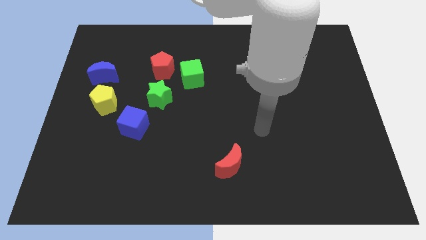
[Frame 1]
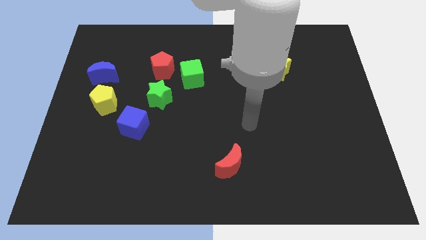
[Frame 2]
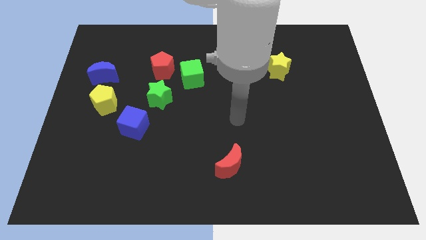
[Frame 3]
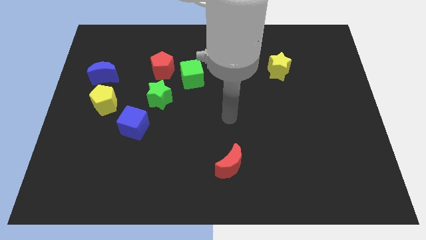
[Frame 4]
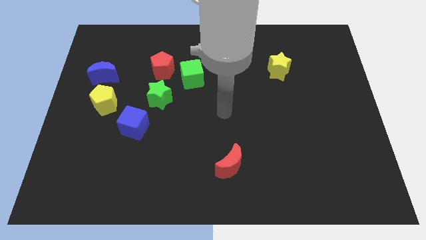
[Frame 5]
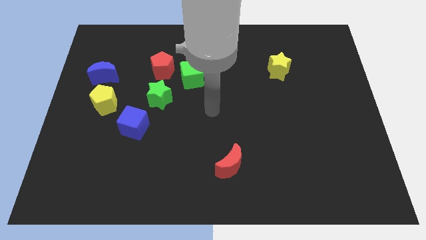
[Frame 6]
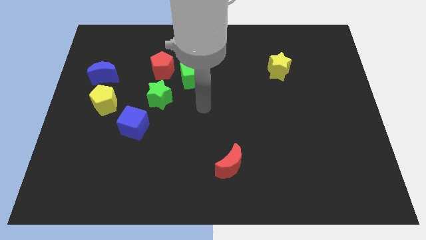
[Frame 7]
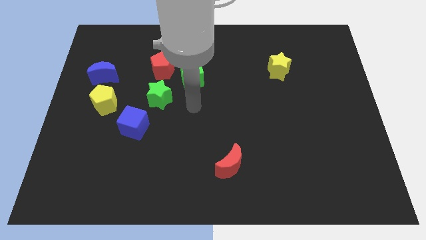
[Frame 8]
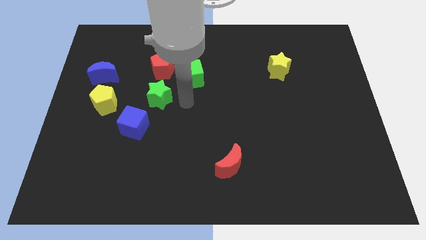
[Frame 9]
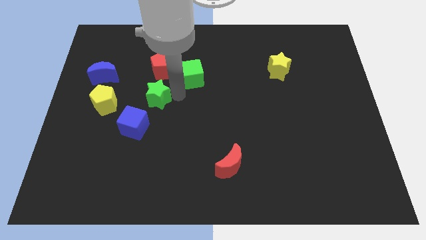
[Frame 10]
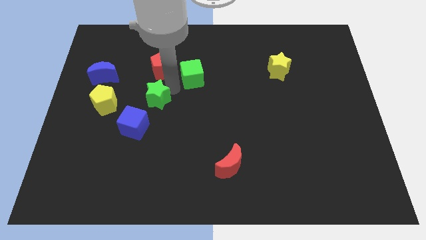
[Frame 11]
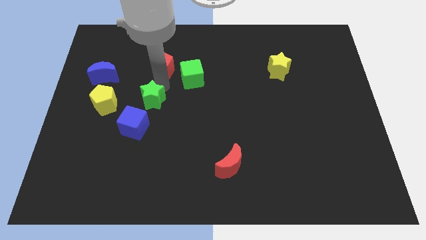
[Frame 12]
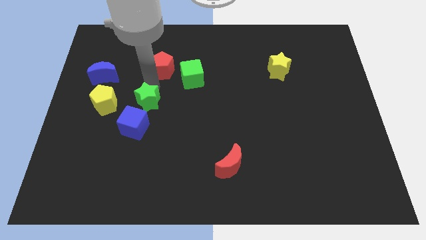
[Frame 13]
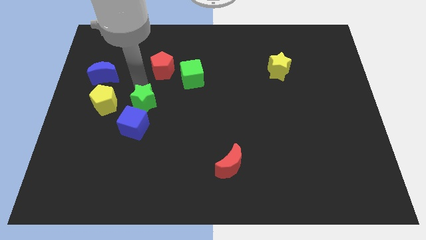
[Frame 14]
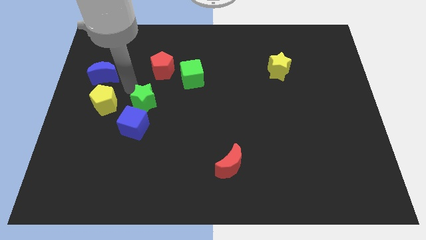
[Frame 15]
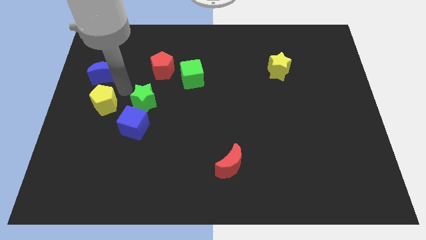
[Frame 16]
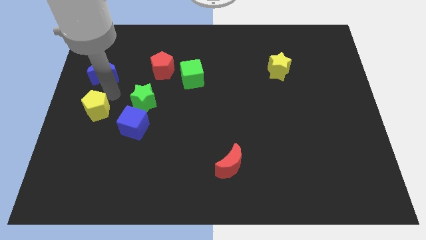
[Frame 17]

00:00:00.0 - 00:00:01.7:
pull the blue moon apart from the yellow pentagon

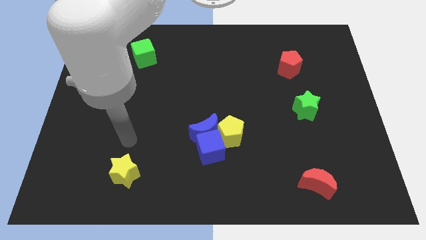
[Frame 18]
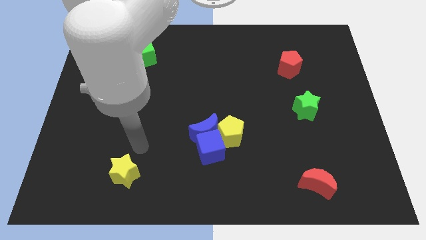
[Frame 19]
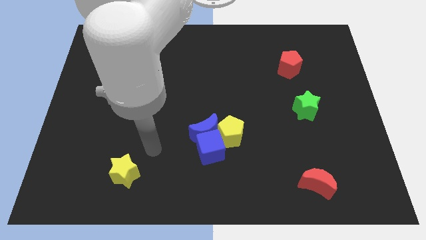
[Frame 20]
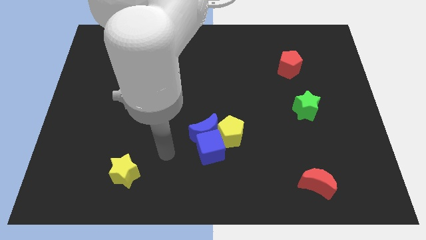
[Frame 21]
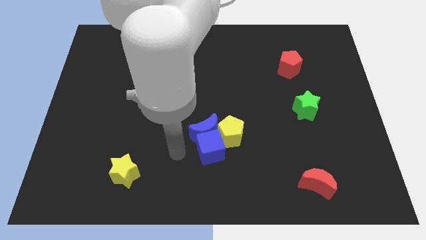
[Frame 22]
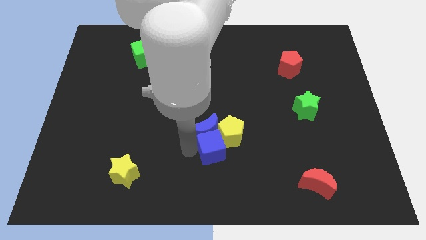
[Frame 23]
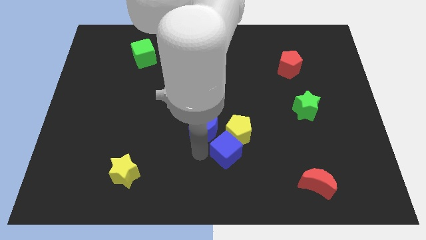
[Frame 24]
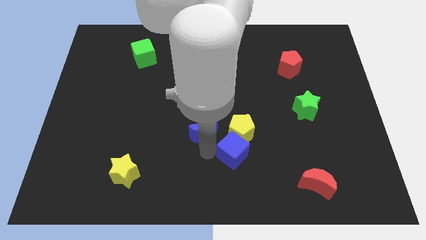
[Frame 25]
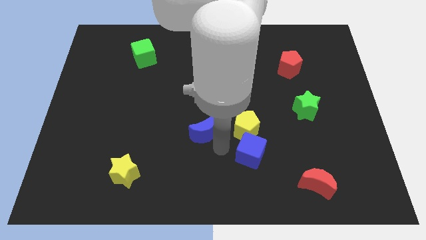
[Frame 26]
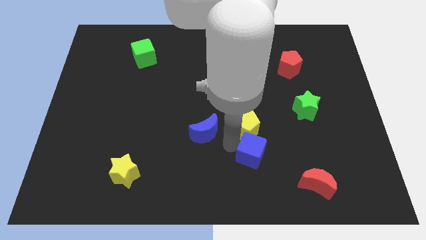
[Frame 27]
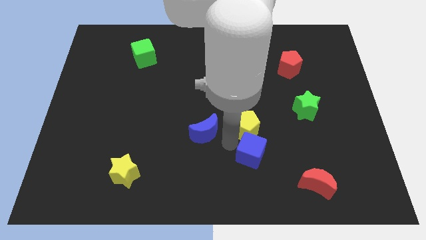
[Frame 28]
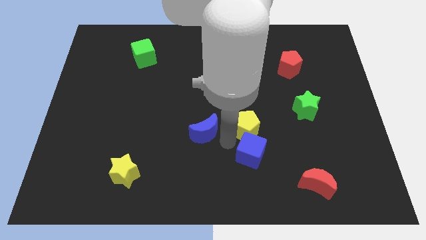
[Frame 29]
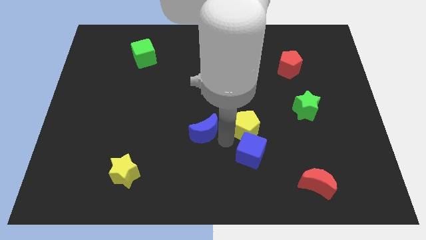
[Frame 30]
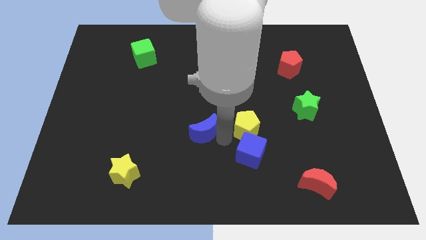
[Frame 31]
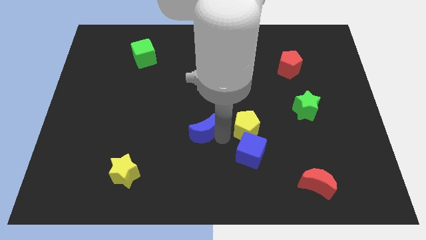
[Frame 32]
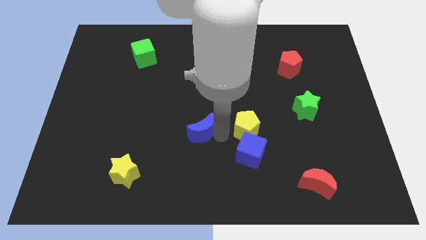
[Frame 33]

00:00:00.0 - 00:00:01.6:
separate the blue moon from the blue cube and yellow pentagon

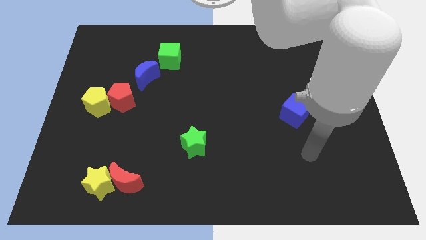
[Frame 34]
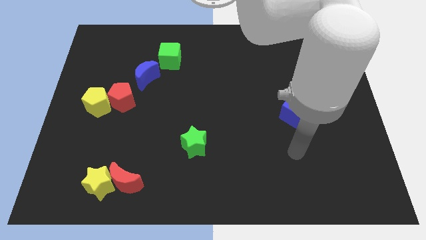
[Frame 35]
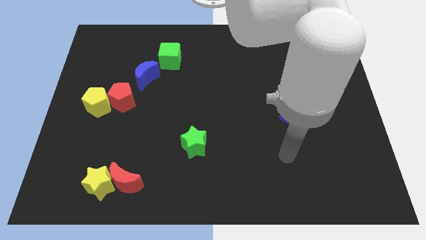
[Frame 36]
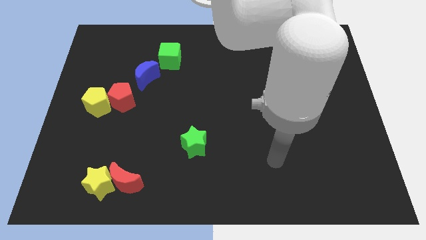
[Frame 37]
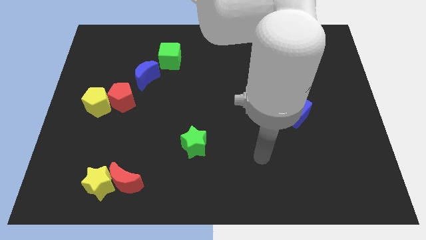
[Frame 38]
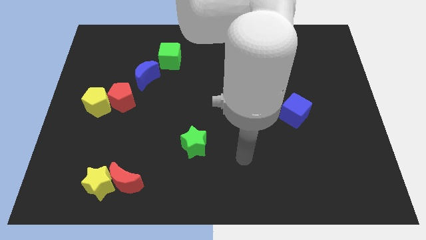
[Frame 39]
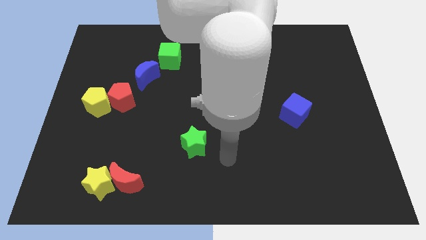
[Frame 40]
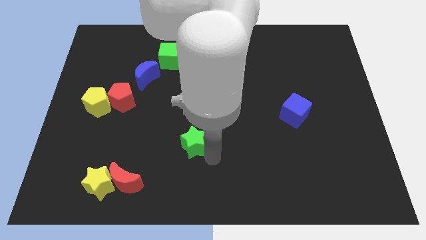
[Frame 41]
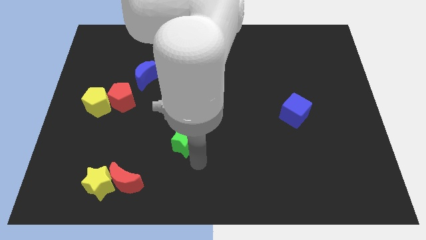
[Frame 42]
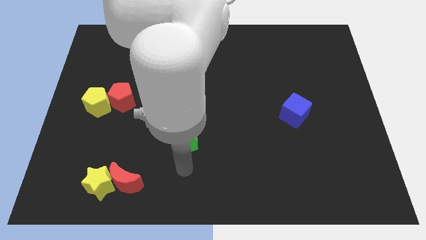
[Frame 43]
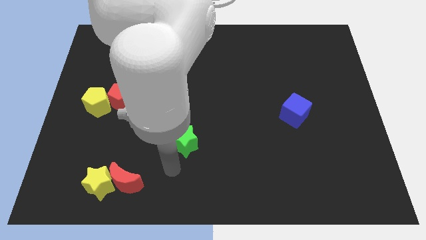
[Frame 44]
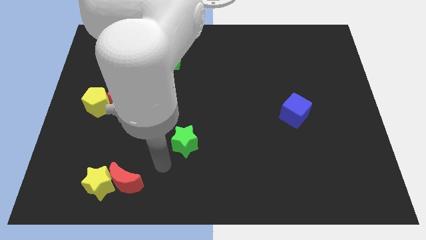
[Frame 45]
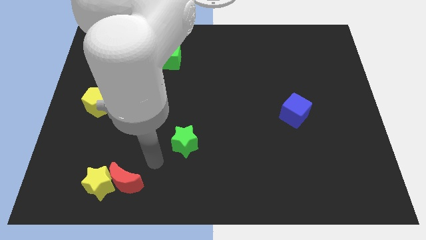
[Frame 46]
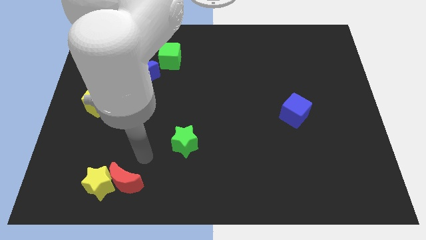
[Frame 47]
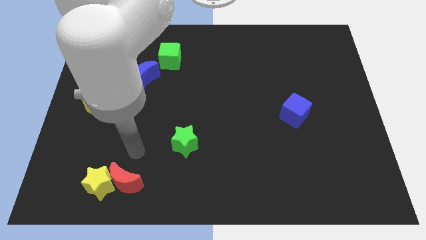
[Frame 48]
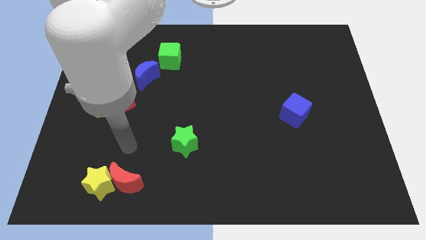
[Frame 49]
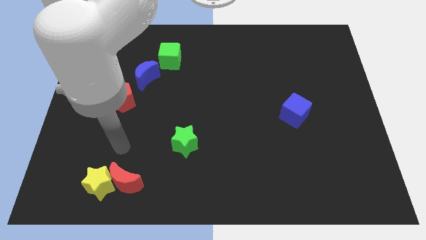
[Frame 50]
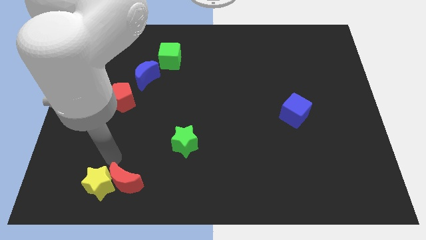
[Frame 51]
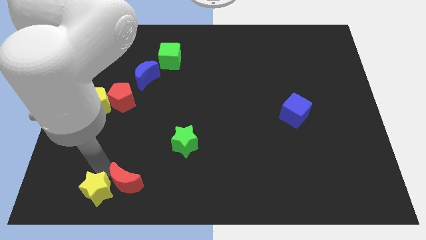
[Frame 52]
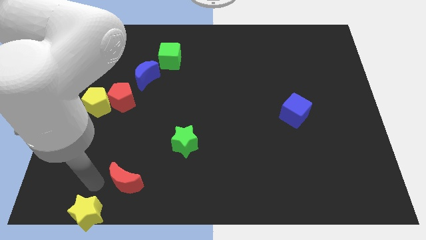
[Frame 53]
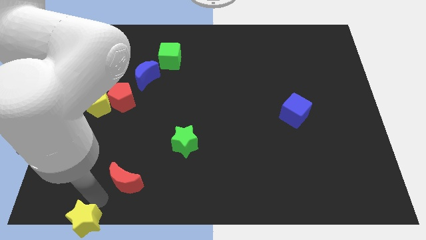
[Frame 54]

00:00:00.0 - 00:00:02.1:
move the red moon away from the yellow star

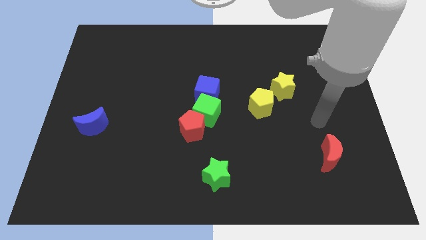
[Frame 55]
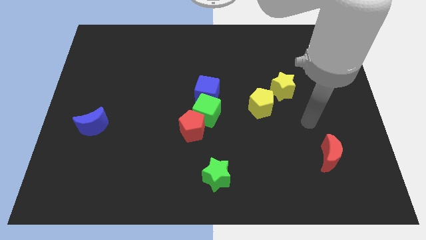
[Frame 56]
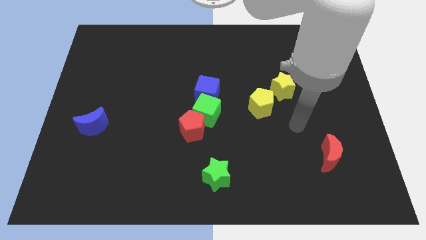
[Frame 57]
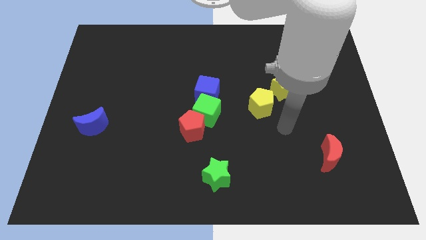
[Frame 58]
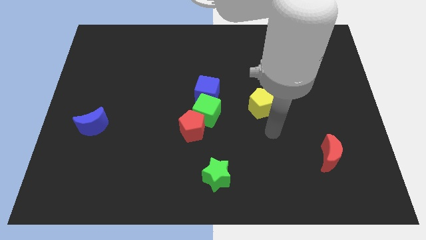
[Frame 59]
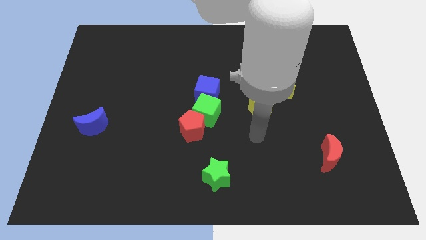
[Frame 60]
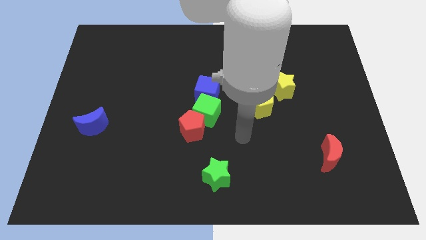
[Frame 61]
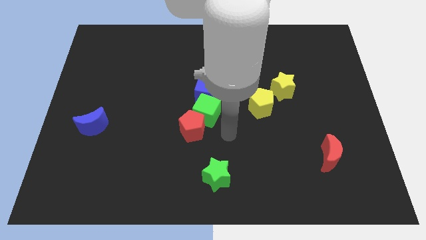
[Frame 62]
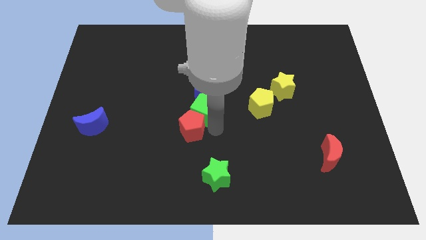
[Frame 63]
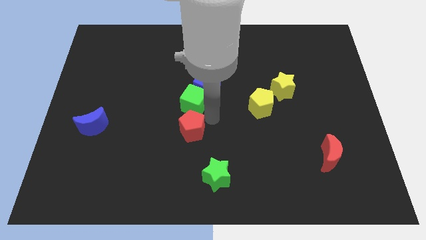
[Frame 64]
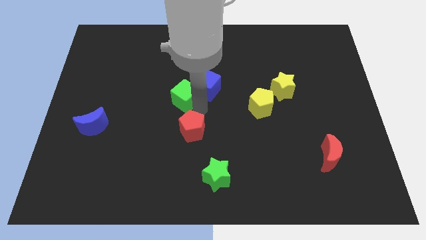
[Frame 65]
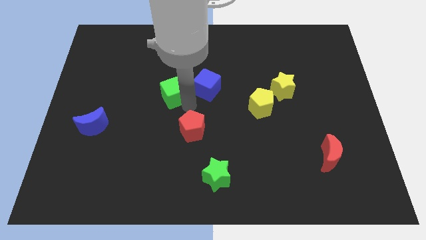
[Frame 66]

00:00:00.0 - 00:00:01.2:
separate the red pentagon from the green cube

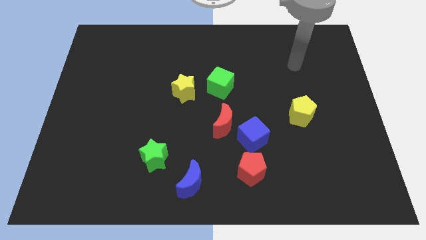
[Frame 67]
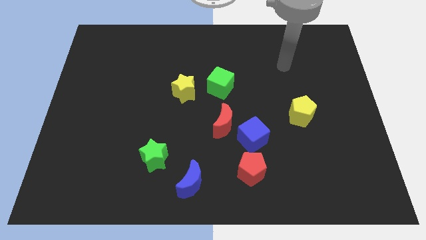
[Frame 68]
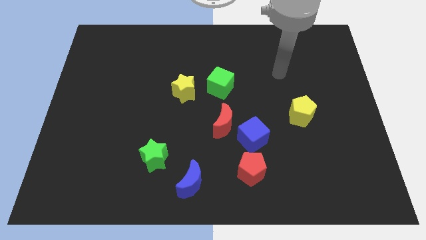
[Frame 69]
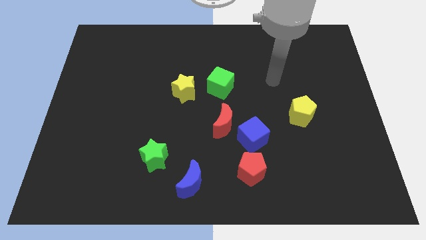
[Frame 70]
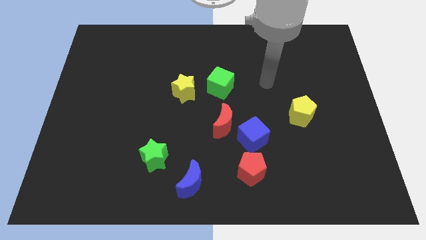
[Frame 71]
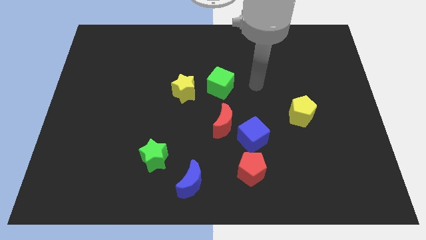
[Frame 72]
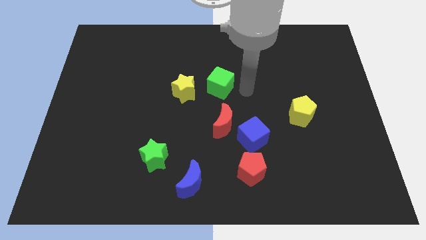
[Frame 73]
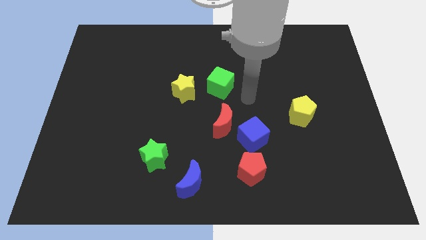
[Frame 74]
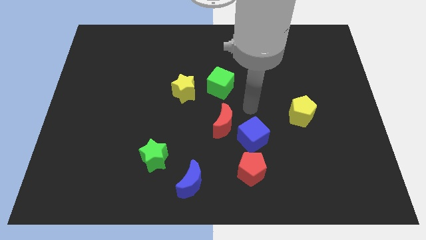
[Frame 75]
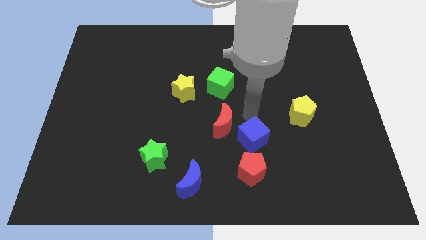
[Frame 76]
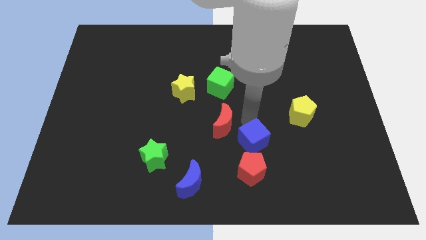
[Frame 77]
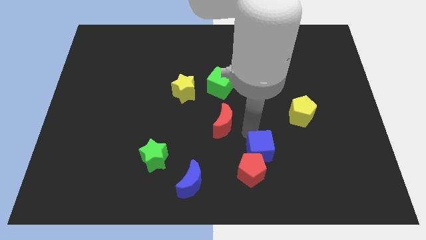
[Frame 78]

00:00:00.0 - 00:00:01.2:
separate the red moon from the blue cube

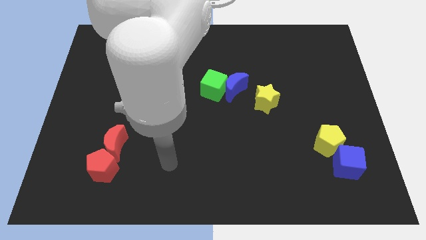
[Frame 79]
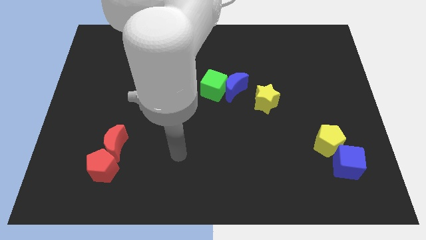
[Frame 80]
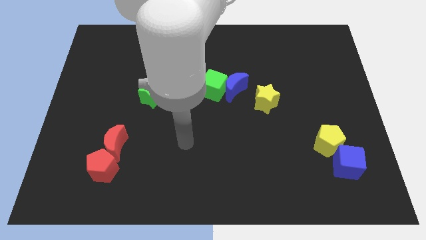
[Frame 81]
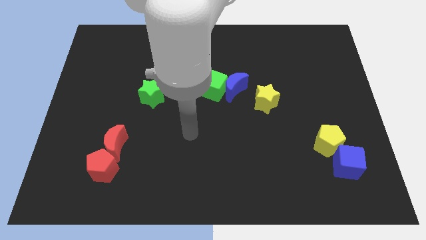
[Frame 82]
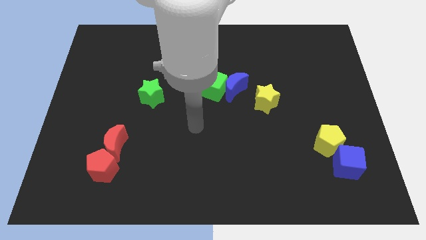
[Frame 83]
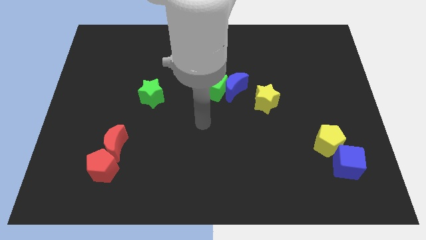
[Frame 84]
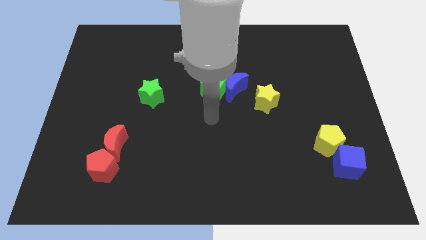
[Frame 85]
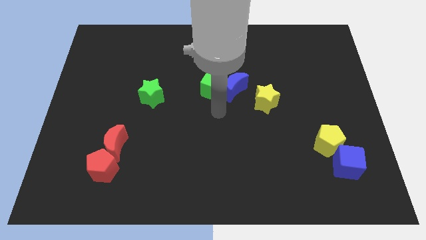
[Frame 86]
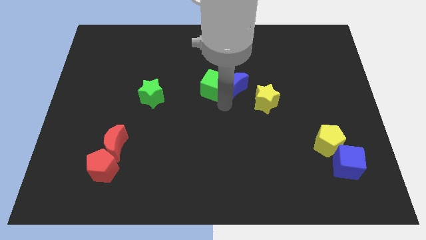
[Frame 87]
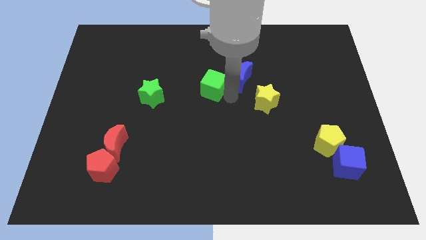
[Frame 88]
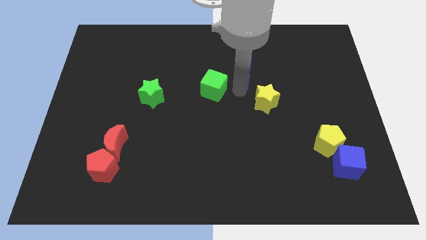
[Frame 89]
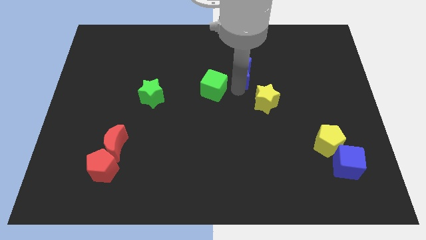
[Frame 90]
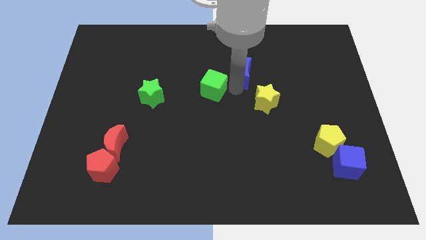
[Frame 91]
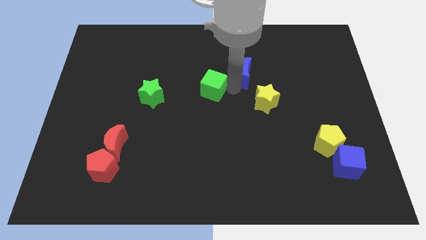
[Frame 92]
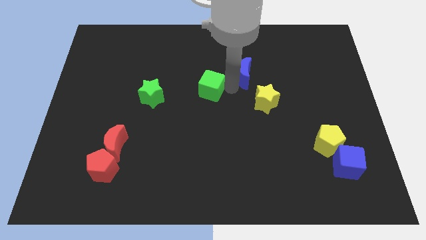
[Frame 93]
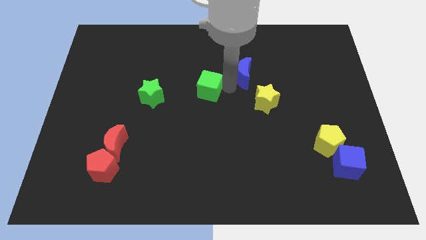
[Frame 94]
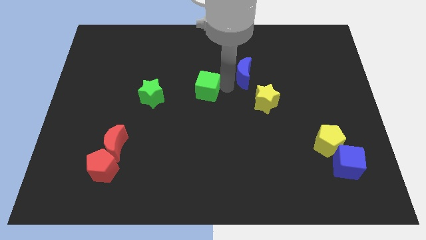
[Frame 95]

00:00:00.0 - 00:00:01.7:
move the green cube away from the blue moon
